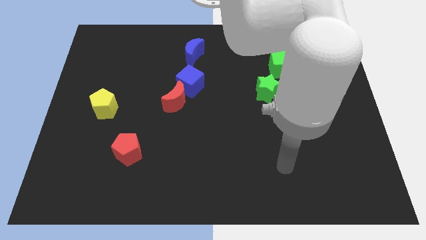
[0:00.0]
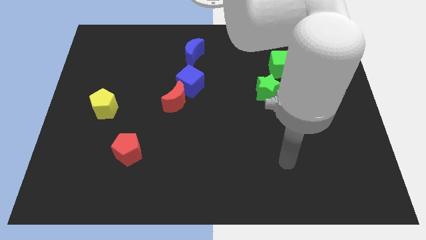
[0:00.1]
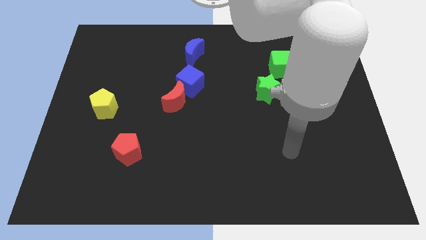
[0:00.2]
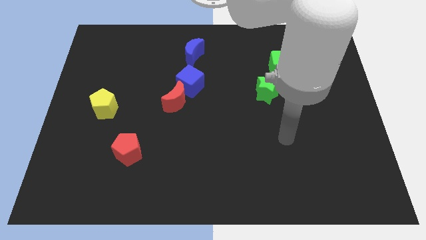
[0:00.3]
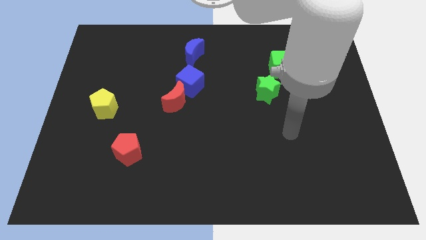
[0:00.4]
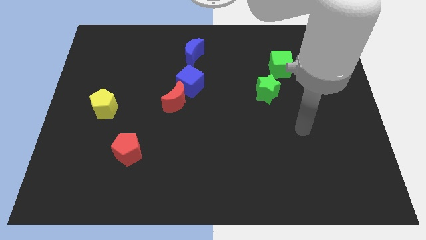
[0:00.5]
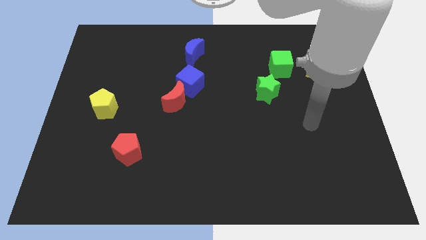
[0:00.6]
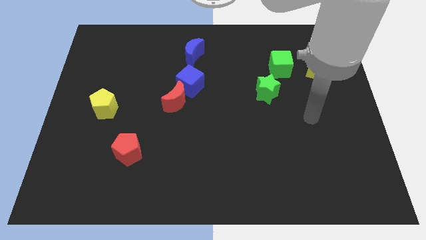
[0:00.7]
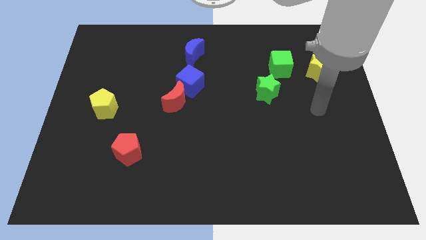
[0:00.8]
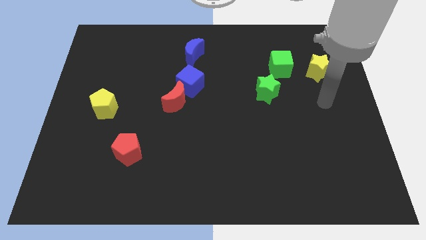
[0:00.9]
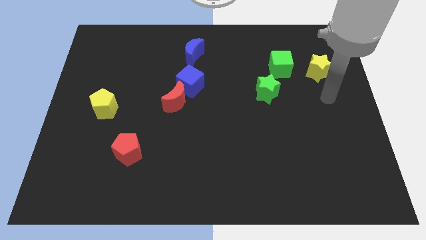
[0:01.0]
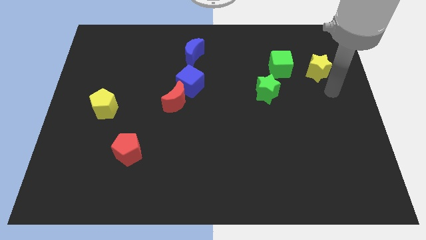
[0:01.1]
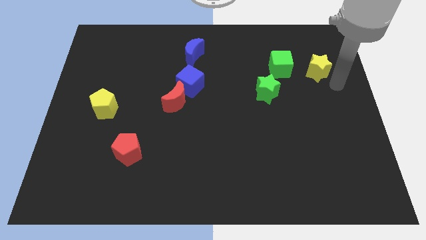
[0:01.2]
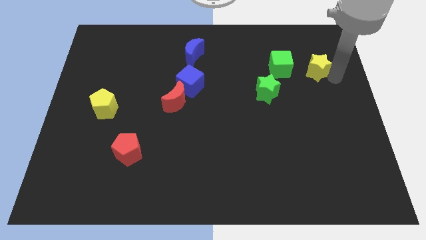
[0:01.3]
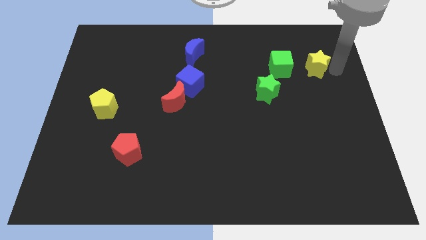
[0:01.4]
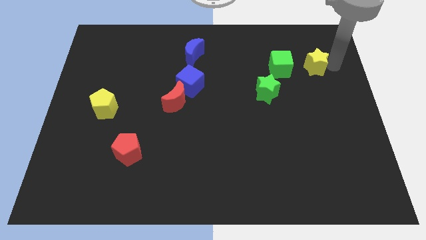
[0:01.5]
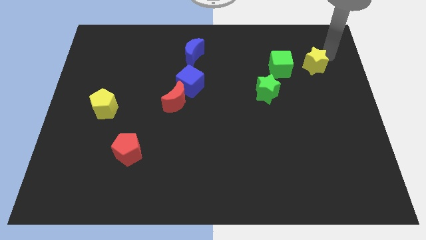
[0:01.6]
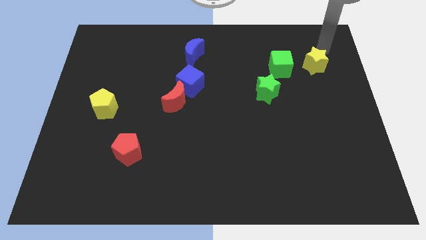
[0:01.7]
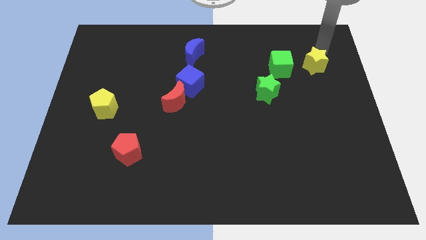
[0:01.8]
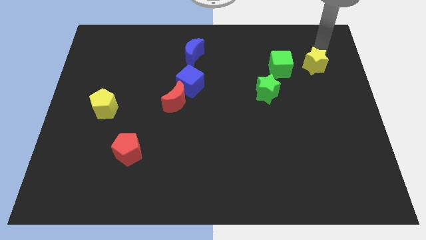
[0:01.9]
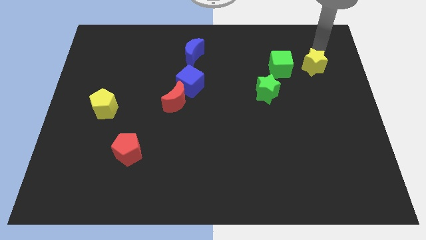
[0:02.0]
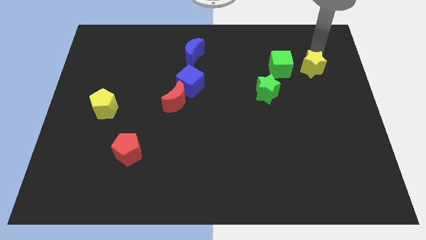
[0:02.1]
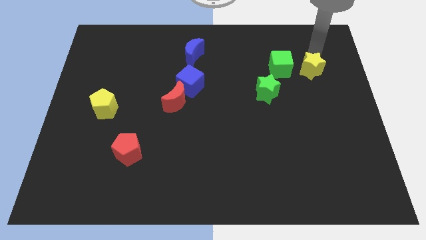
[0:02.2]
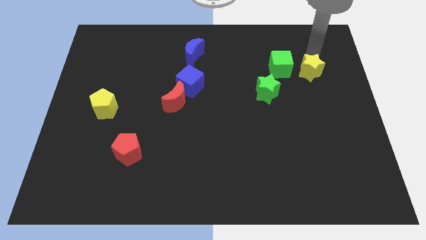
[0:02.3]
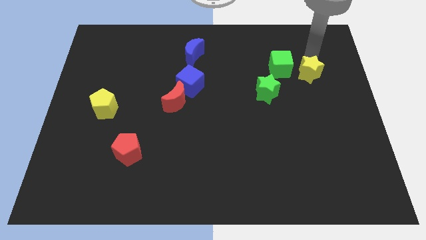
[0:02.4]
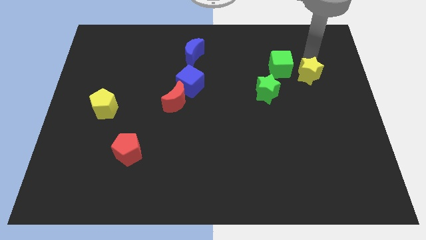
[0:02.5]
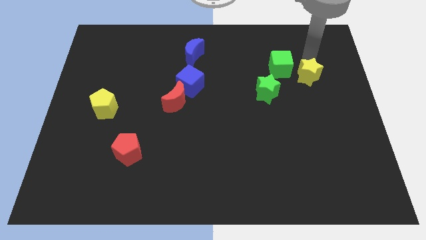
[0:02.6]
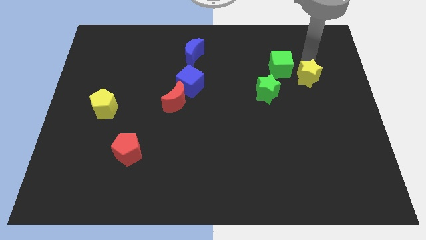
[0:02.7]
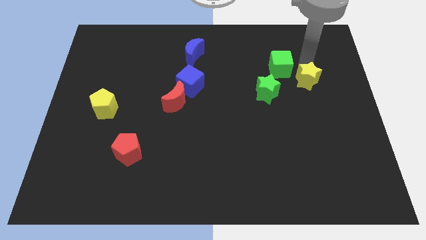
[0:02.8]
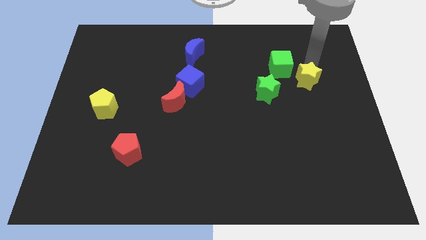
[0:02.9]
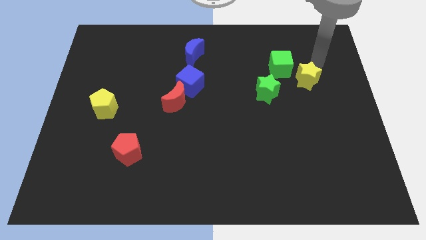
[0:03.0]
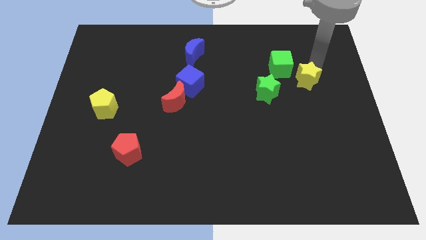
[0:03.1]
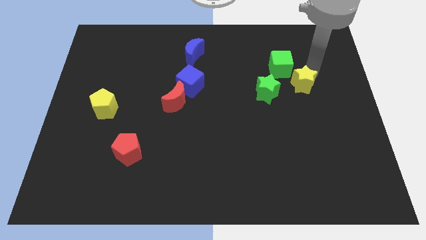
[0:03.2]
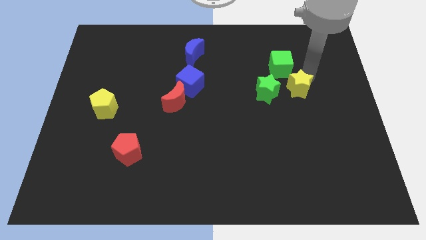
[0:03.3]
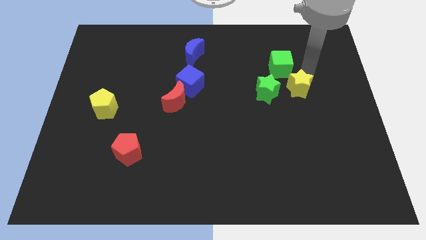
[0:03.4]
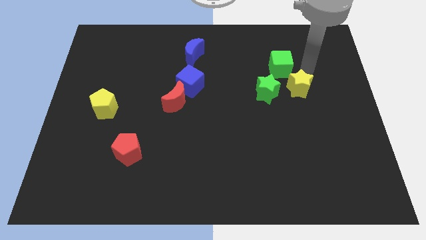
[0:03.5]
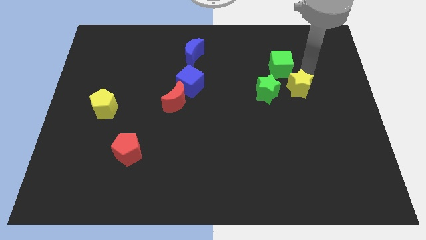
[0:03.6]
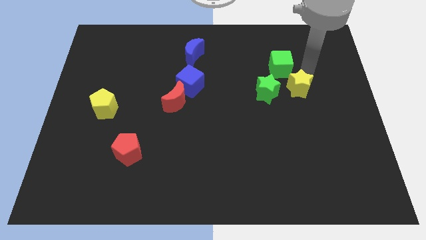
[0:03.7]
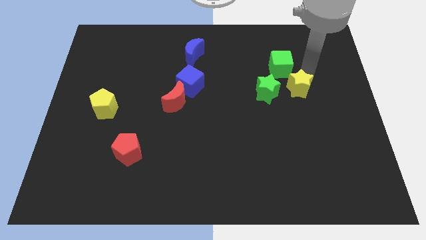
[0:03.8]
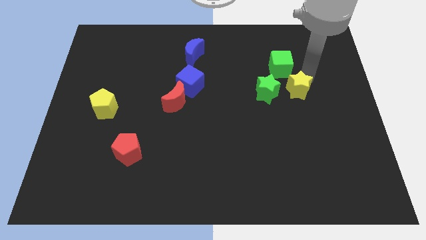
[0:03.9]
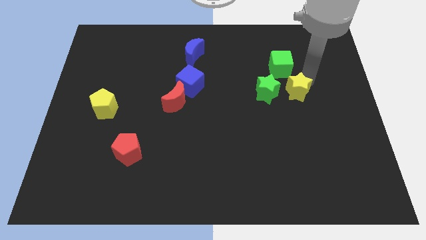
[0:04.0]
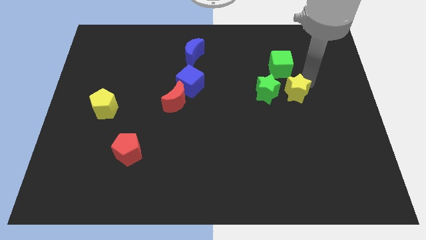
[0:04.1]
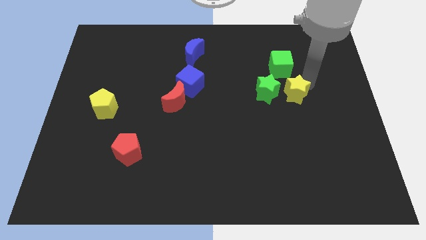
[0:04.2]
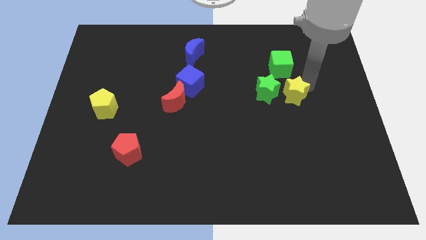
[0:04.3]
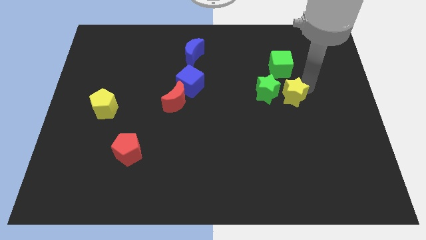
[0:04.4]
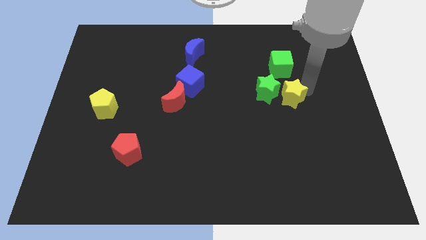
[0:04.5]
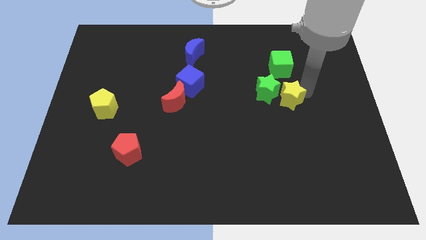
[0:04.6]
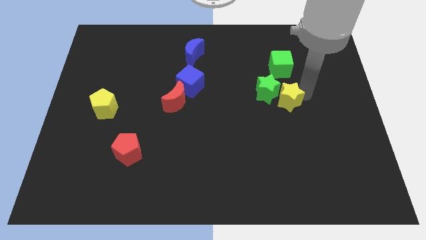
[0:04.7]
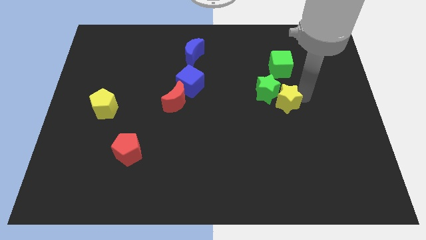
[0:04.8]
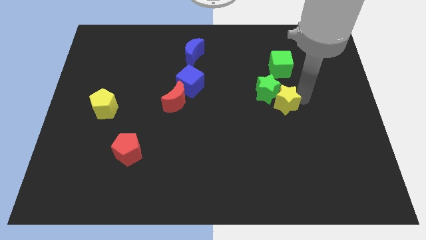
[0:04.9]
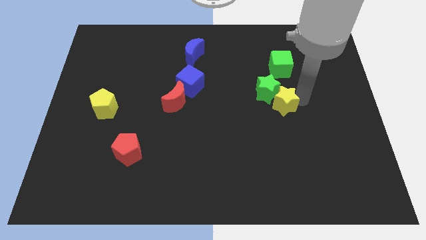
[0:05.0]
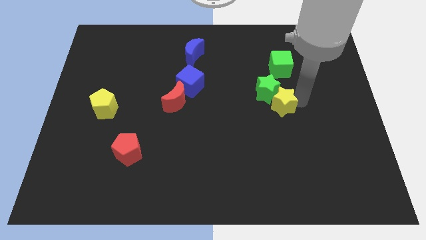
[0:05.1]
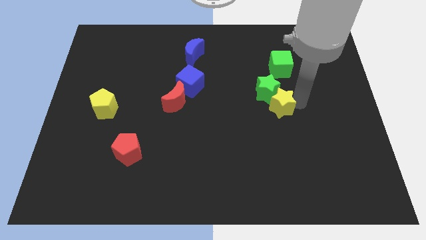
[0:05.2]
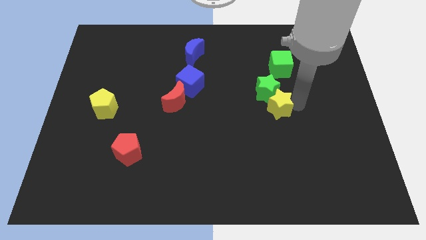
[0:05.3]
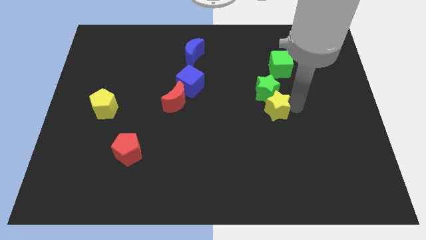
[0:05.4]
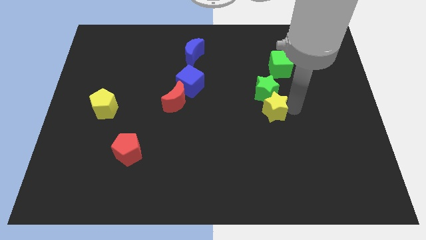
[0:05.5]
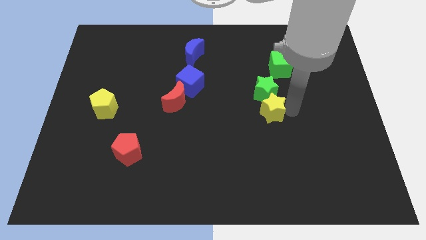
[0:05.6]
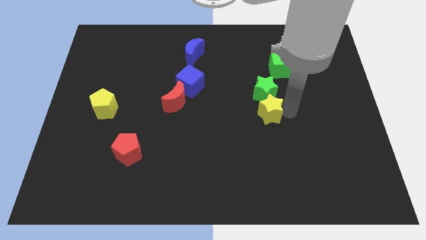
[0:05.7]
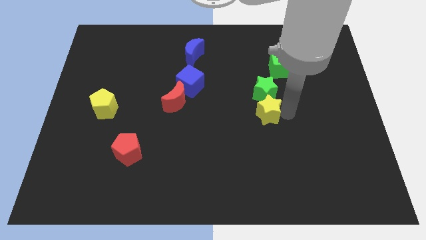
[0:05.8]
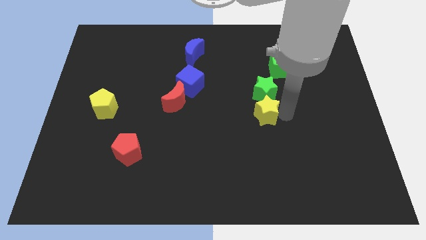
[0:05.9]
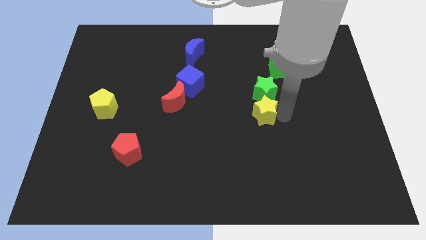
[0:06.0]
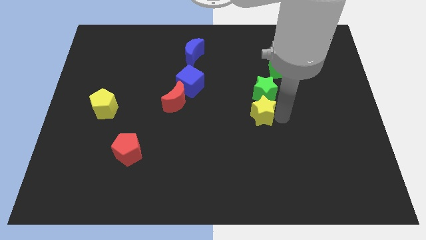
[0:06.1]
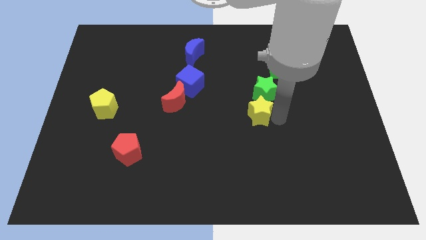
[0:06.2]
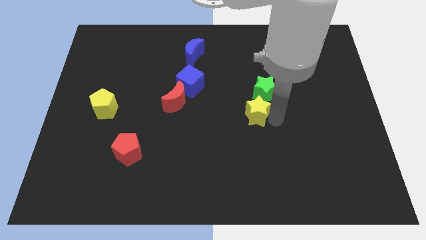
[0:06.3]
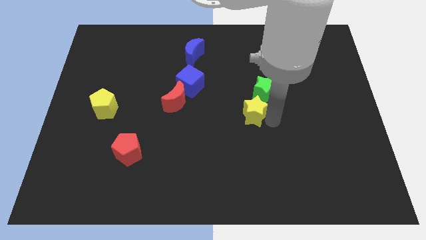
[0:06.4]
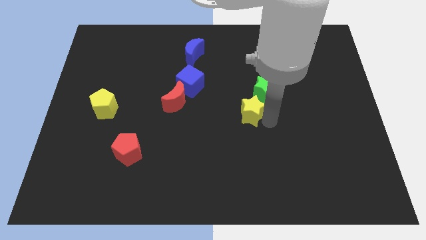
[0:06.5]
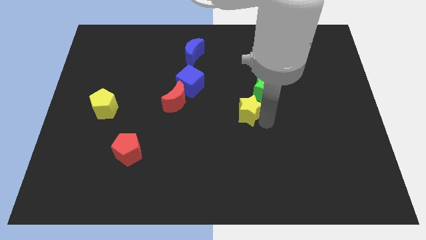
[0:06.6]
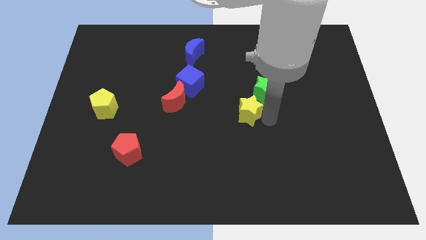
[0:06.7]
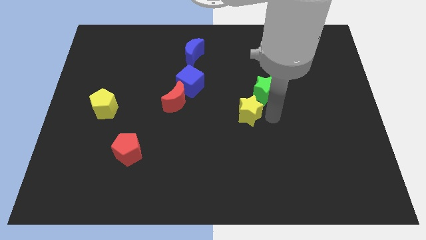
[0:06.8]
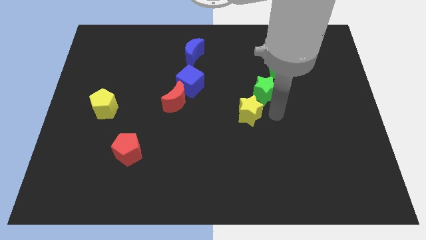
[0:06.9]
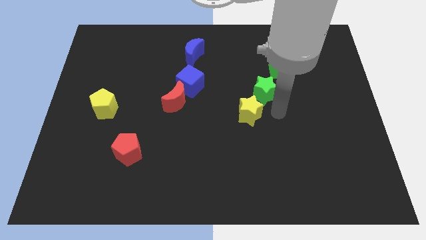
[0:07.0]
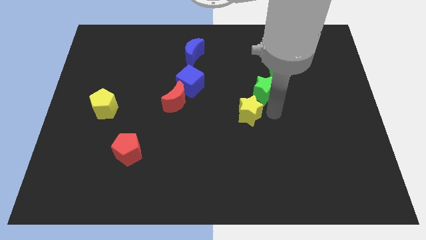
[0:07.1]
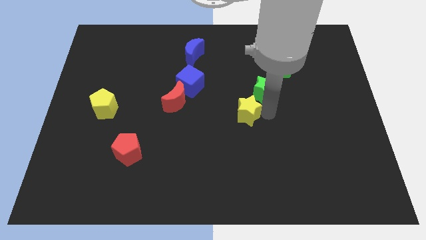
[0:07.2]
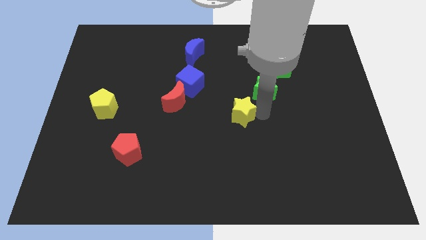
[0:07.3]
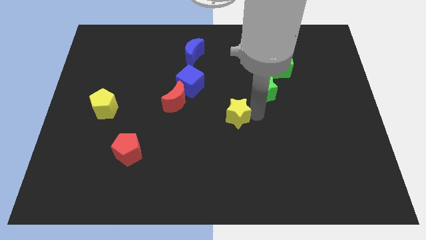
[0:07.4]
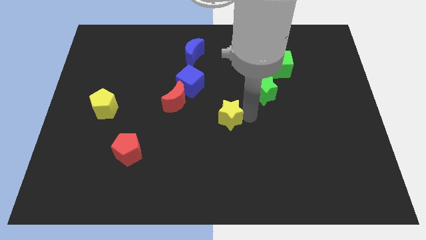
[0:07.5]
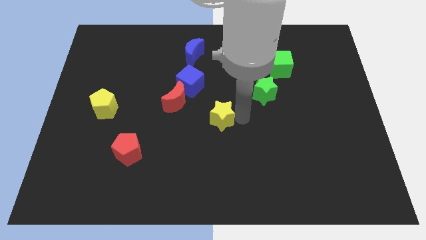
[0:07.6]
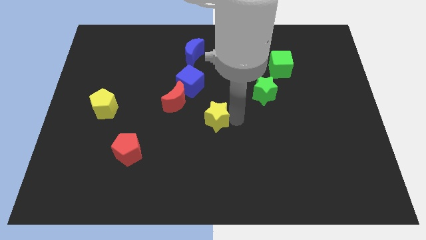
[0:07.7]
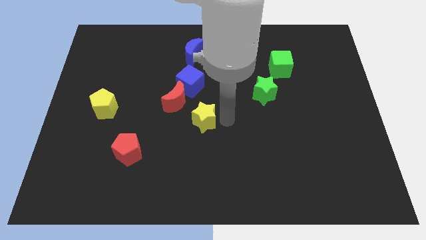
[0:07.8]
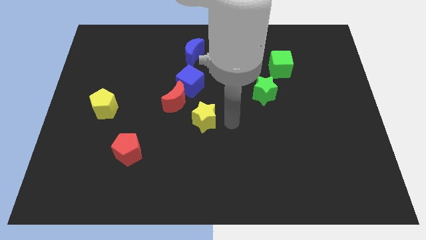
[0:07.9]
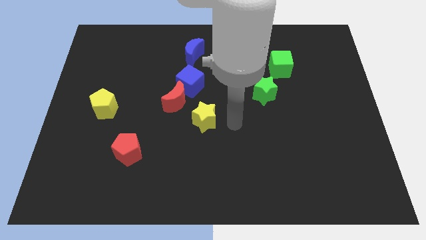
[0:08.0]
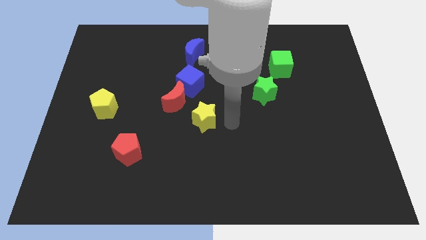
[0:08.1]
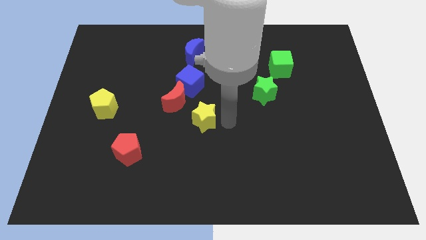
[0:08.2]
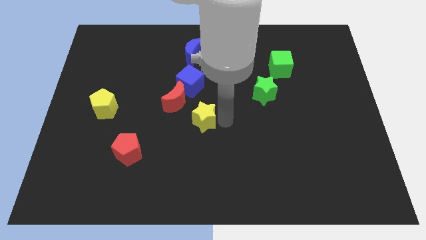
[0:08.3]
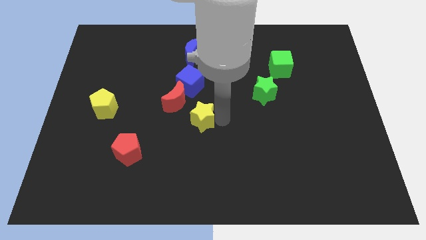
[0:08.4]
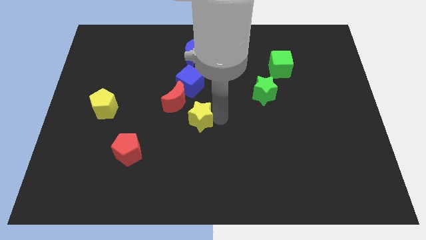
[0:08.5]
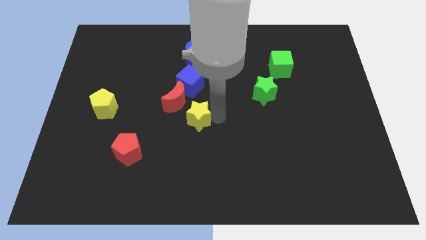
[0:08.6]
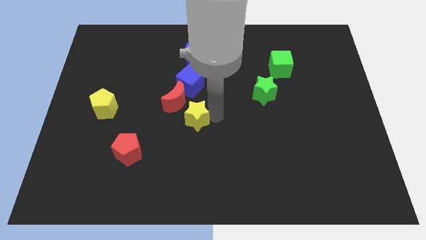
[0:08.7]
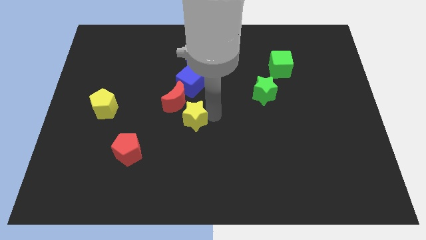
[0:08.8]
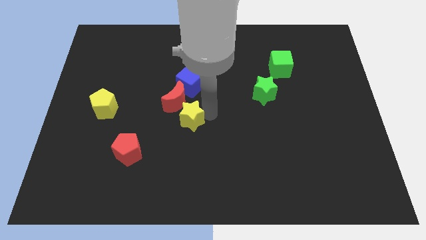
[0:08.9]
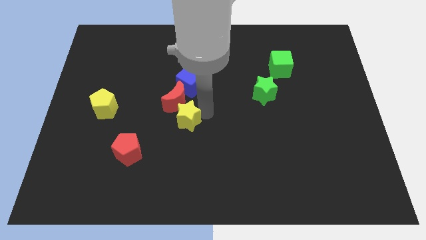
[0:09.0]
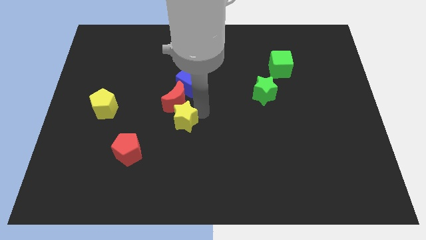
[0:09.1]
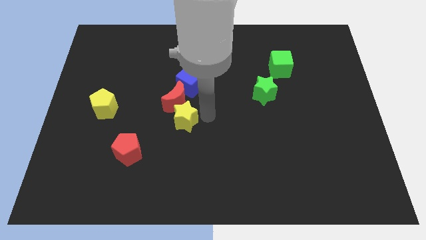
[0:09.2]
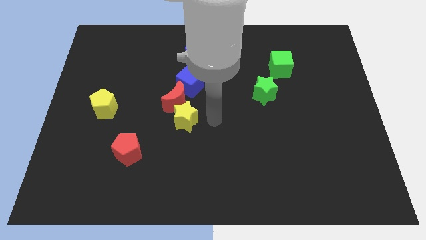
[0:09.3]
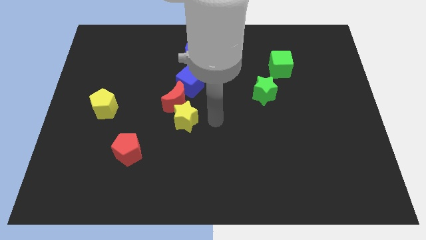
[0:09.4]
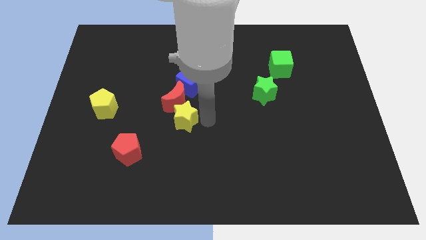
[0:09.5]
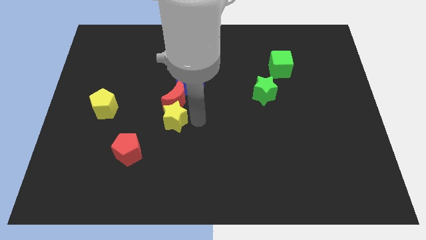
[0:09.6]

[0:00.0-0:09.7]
push the yellow star to the bottom left side of the red moon
